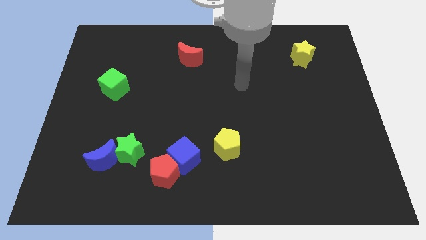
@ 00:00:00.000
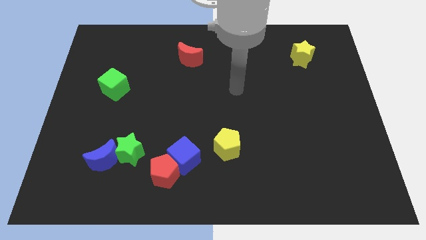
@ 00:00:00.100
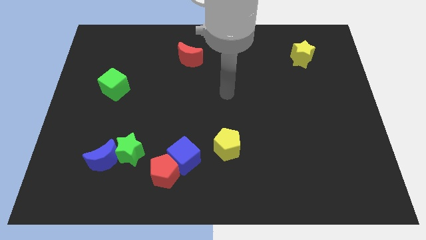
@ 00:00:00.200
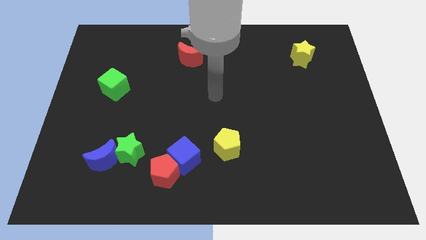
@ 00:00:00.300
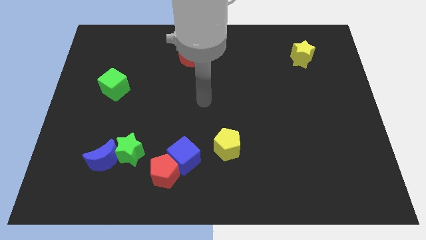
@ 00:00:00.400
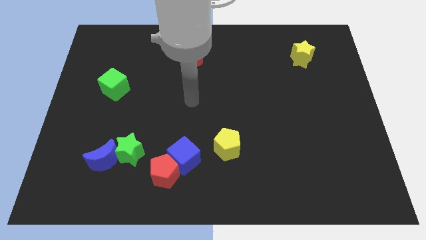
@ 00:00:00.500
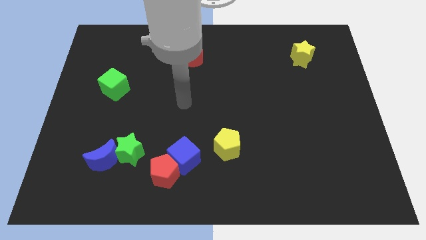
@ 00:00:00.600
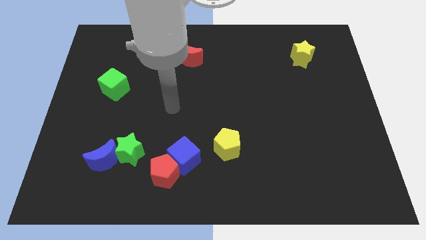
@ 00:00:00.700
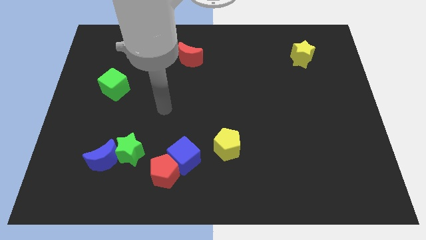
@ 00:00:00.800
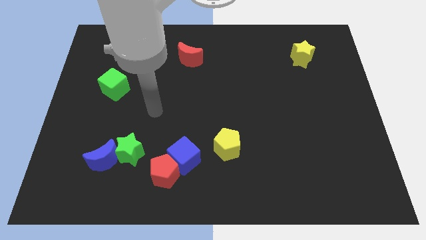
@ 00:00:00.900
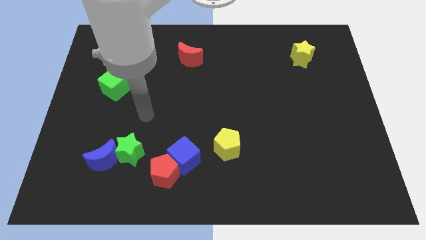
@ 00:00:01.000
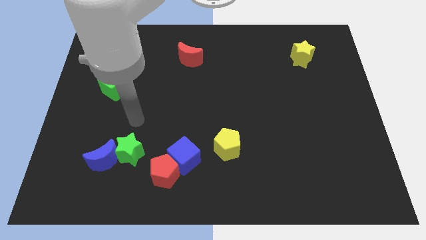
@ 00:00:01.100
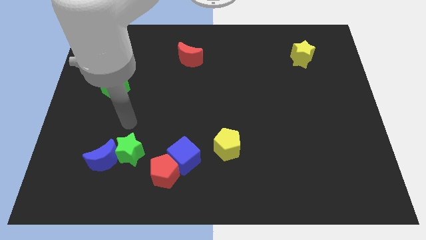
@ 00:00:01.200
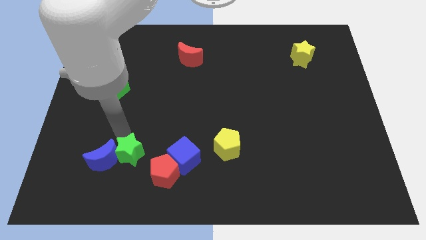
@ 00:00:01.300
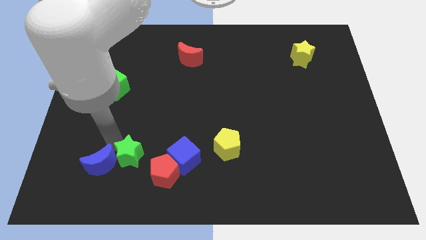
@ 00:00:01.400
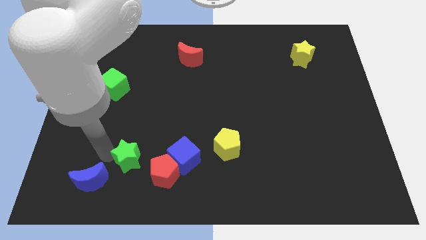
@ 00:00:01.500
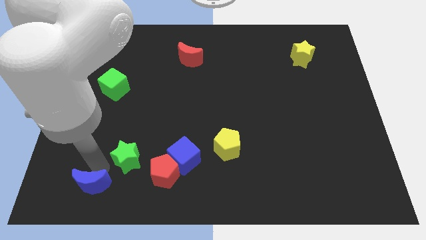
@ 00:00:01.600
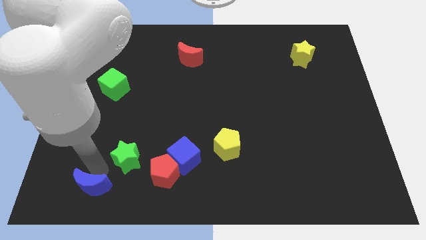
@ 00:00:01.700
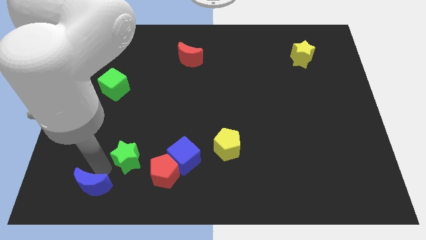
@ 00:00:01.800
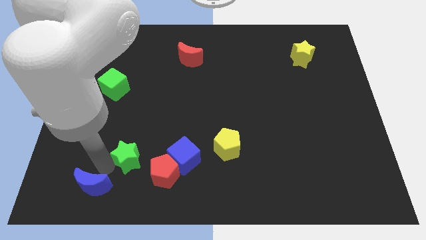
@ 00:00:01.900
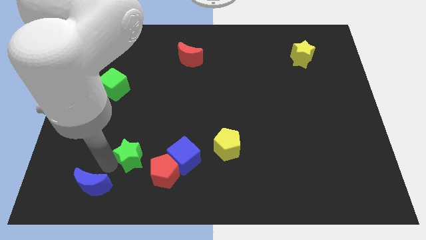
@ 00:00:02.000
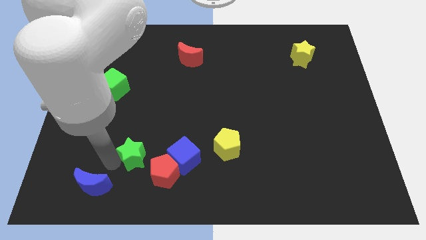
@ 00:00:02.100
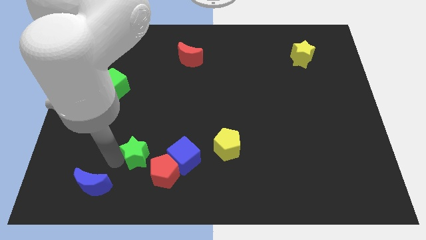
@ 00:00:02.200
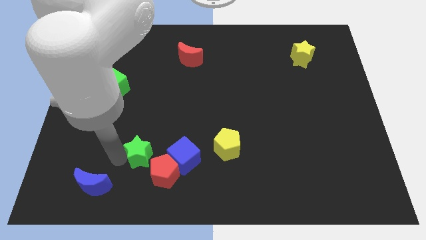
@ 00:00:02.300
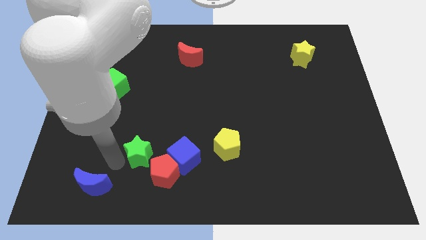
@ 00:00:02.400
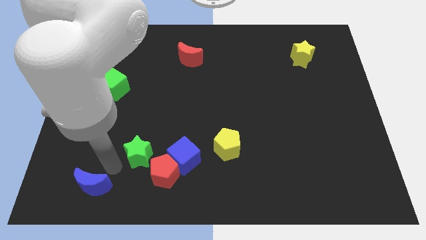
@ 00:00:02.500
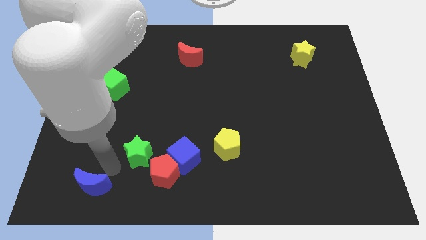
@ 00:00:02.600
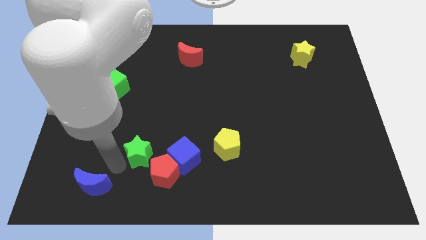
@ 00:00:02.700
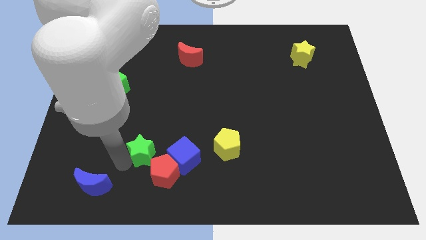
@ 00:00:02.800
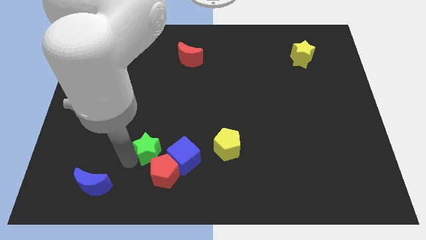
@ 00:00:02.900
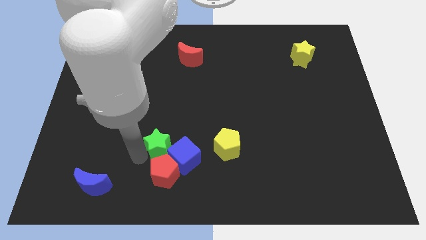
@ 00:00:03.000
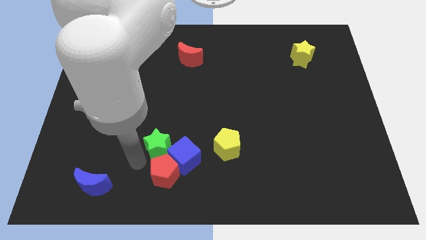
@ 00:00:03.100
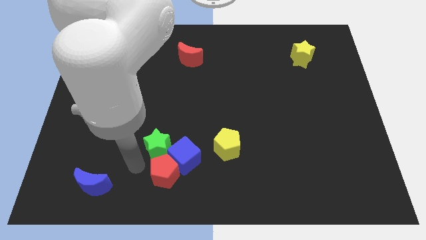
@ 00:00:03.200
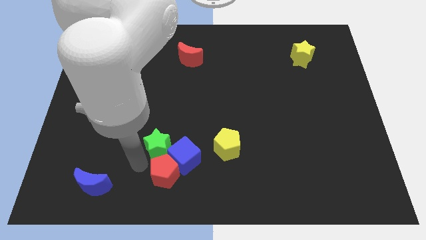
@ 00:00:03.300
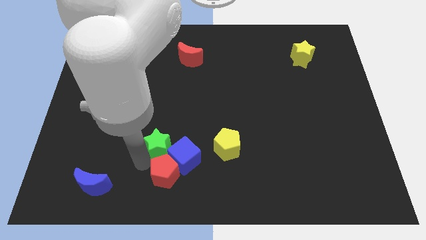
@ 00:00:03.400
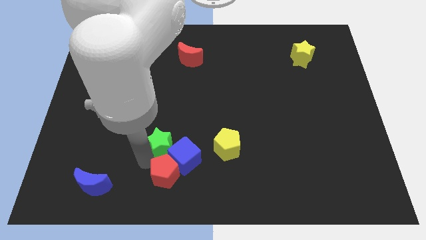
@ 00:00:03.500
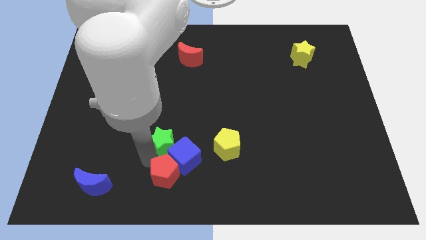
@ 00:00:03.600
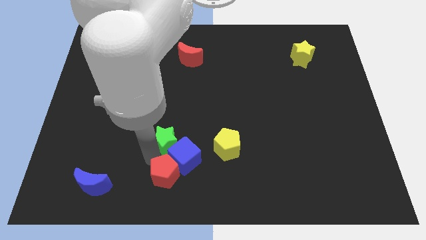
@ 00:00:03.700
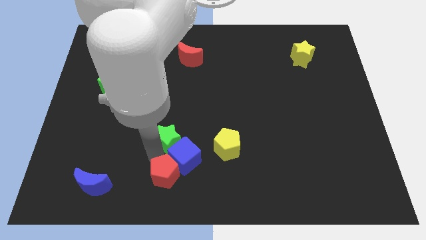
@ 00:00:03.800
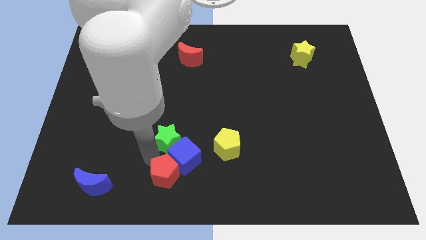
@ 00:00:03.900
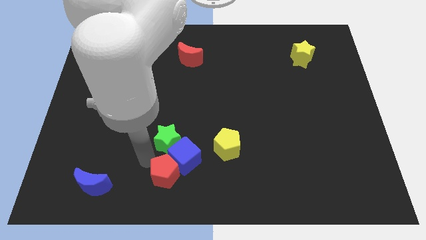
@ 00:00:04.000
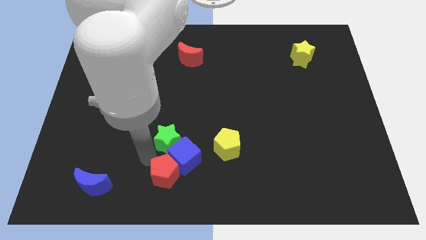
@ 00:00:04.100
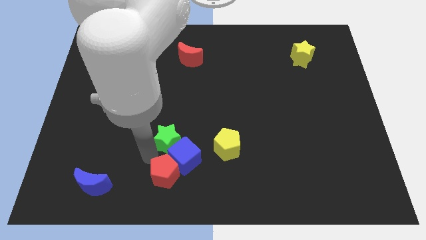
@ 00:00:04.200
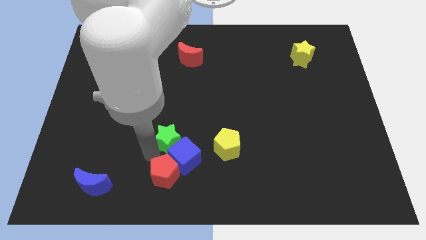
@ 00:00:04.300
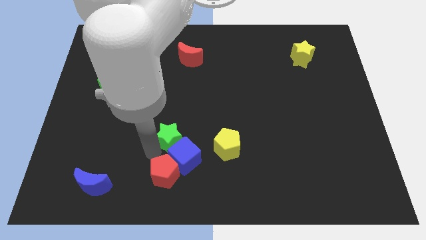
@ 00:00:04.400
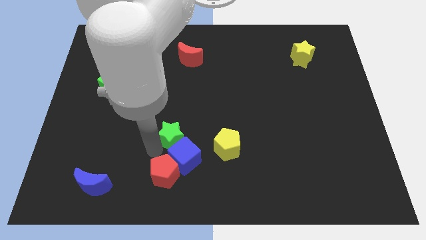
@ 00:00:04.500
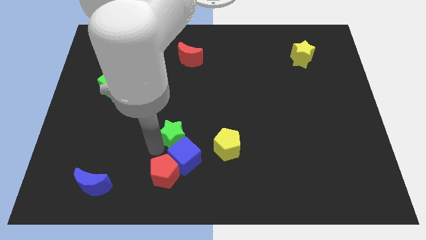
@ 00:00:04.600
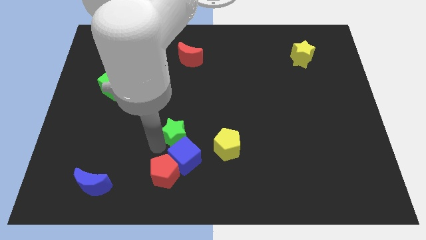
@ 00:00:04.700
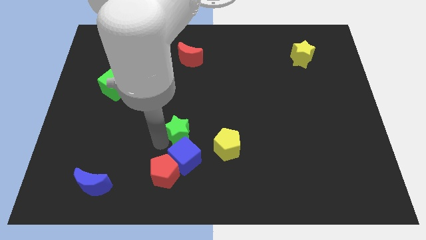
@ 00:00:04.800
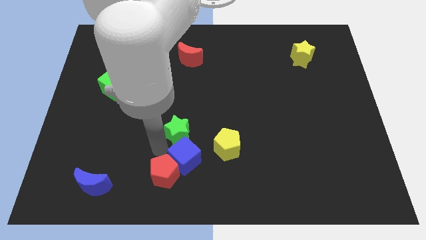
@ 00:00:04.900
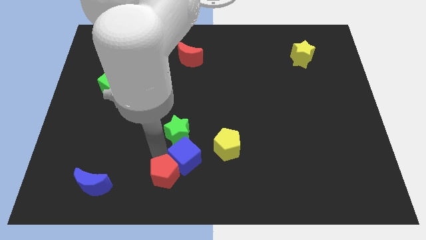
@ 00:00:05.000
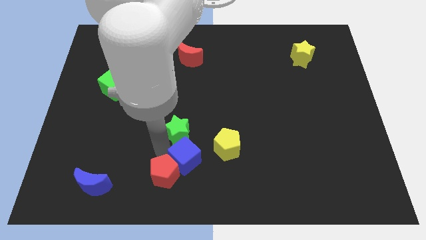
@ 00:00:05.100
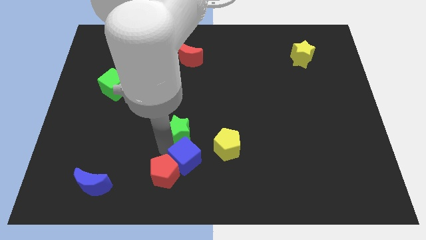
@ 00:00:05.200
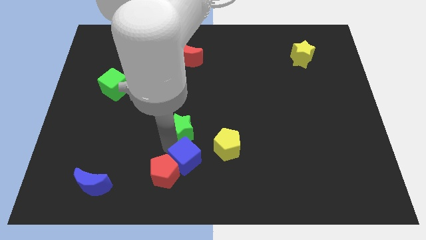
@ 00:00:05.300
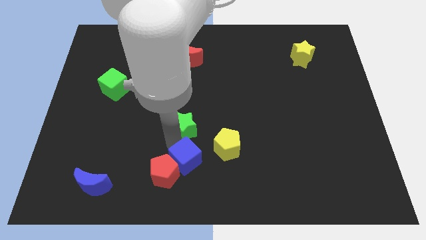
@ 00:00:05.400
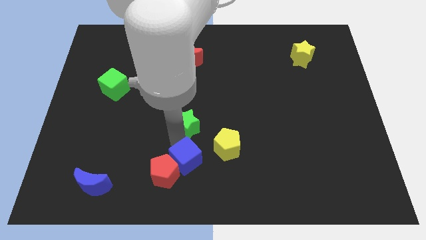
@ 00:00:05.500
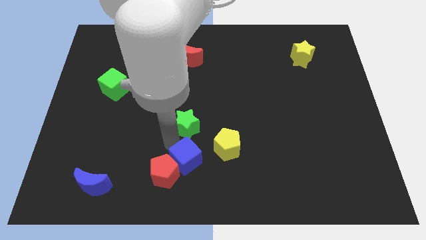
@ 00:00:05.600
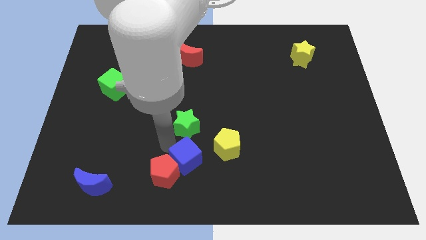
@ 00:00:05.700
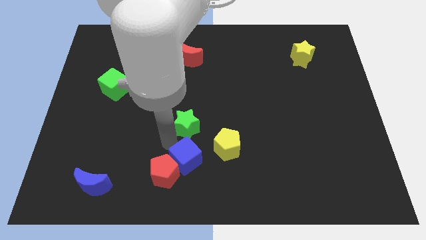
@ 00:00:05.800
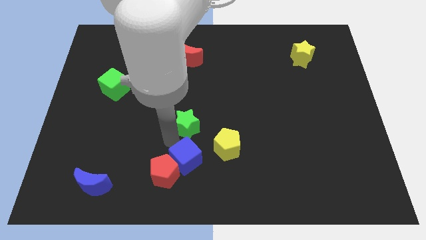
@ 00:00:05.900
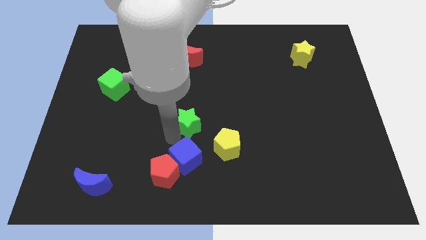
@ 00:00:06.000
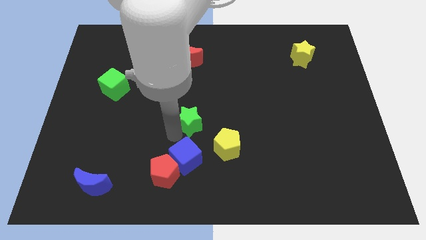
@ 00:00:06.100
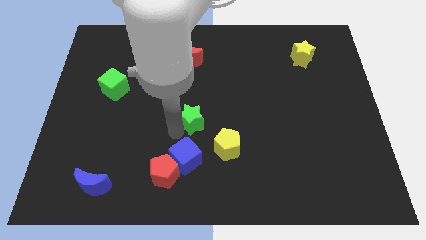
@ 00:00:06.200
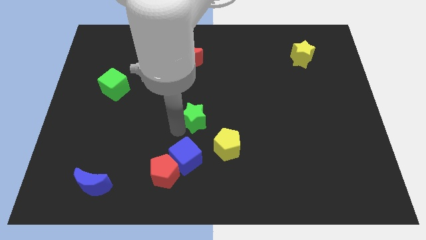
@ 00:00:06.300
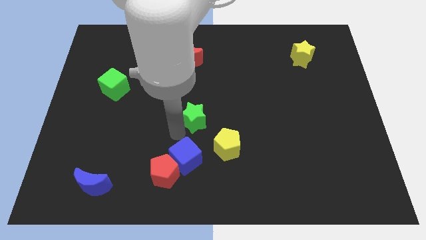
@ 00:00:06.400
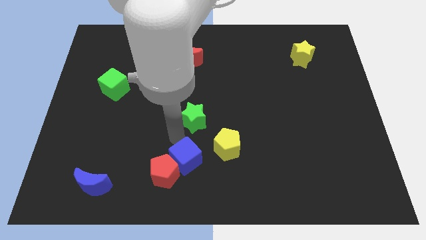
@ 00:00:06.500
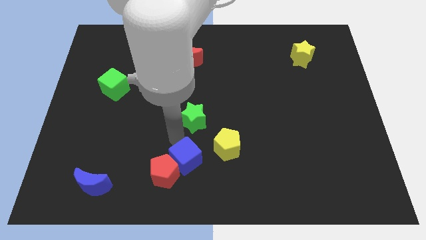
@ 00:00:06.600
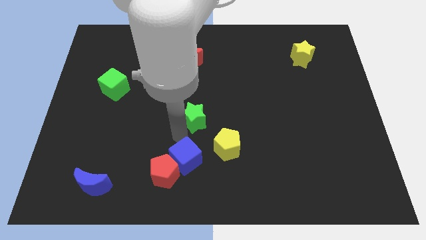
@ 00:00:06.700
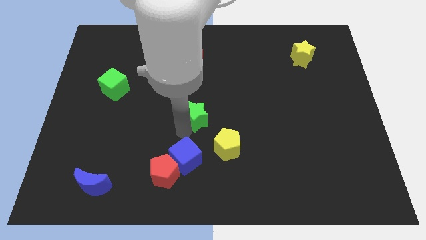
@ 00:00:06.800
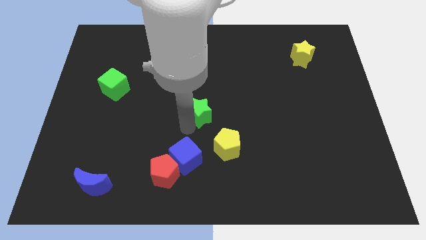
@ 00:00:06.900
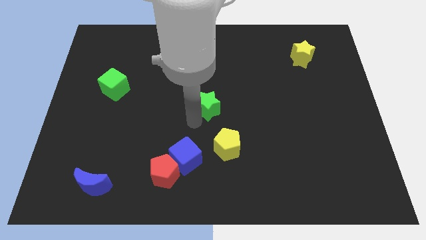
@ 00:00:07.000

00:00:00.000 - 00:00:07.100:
move the green star upwards and right

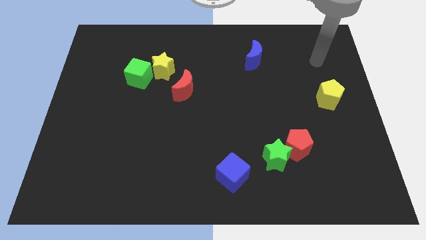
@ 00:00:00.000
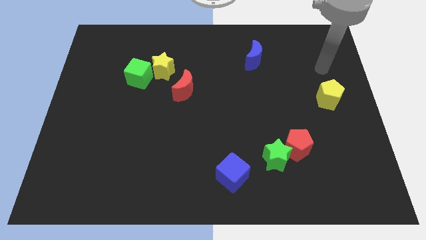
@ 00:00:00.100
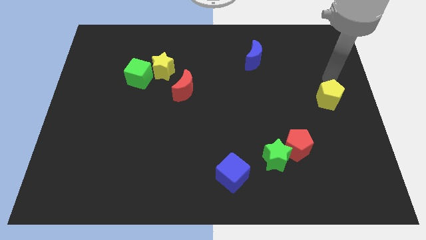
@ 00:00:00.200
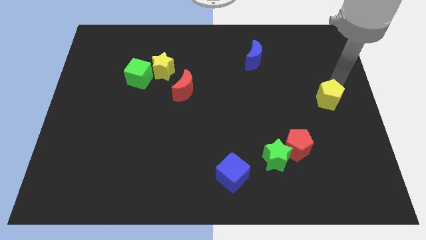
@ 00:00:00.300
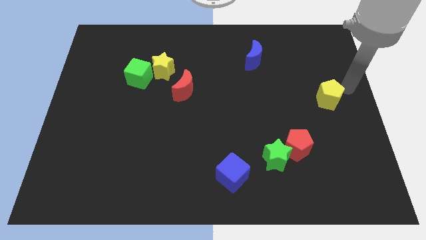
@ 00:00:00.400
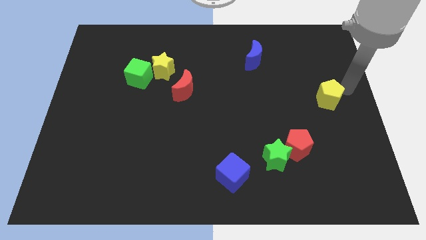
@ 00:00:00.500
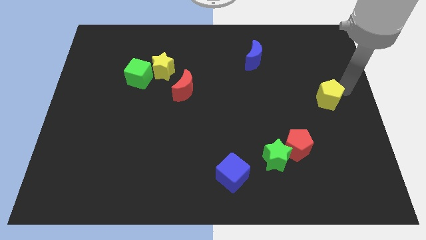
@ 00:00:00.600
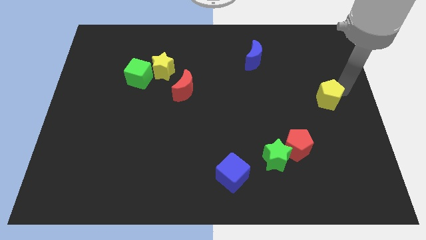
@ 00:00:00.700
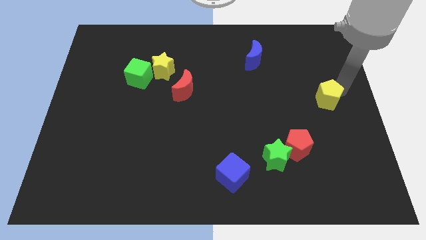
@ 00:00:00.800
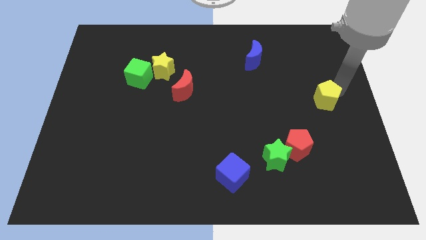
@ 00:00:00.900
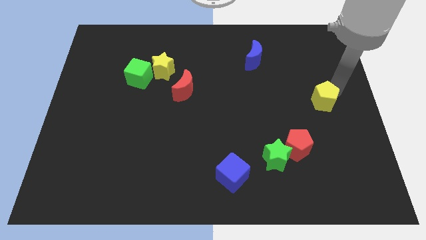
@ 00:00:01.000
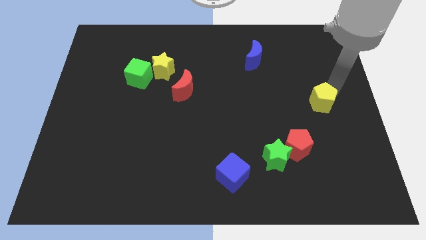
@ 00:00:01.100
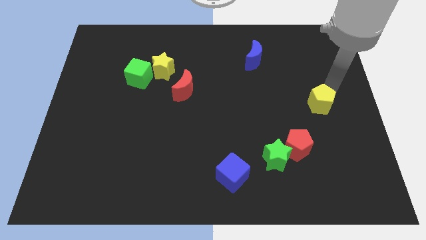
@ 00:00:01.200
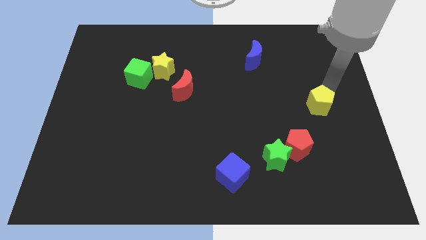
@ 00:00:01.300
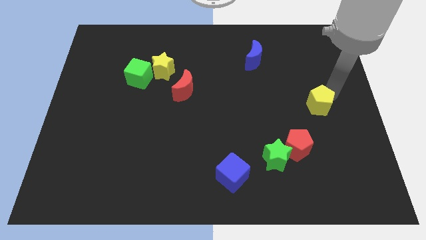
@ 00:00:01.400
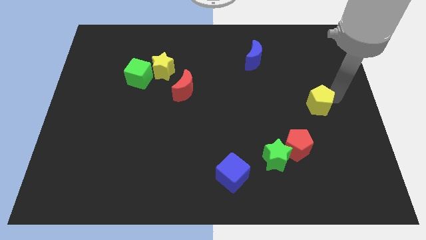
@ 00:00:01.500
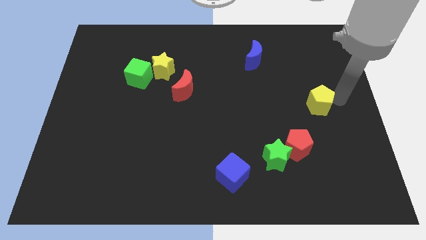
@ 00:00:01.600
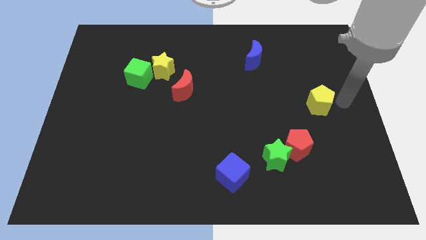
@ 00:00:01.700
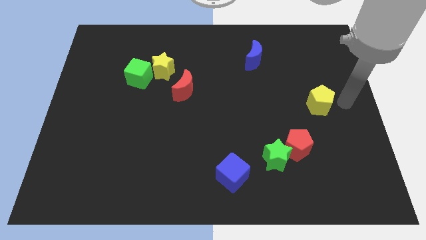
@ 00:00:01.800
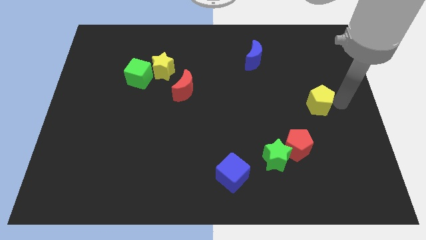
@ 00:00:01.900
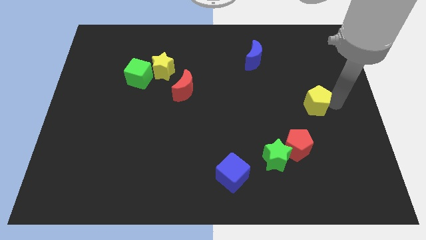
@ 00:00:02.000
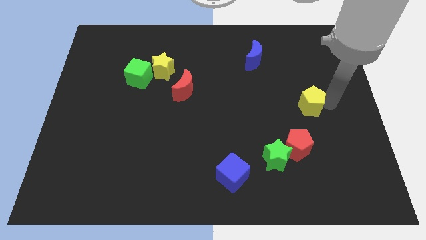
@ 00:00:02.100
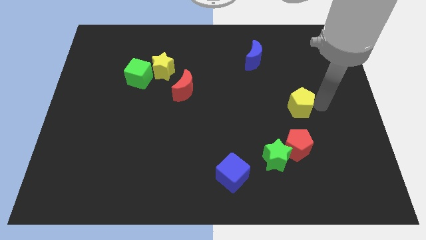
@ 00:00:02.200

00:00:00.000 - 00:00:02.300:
move the yellow pentagon to the left a bit
